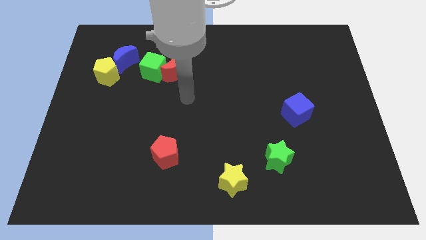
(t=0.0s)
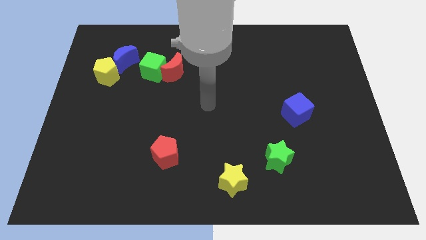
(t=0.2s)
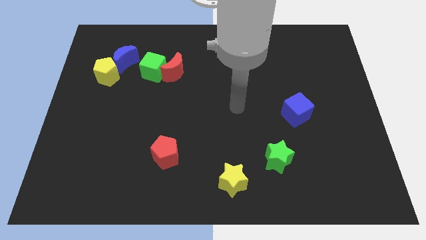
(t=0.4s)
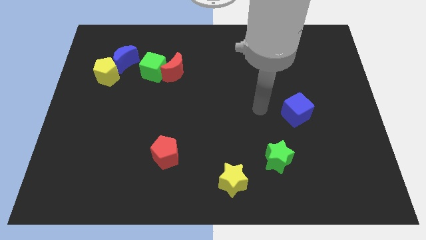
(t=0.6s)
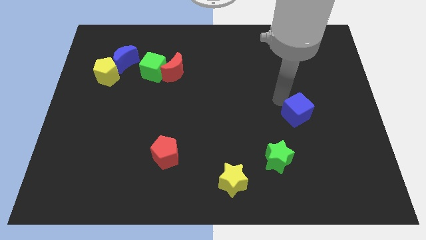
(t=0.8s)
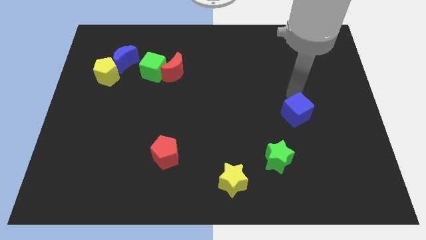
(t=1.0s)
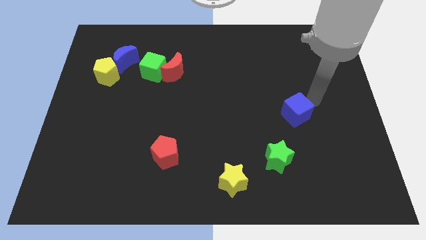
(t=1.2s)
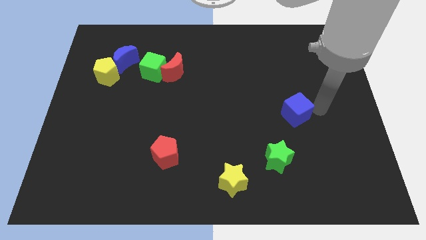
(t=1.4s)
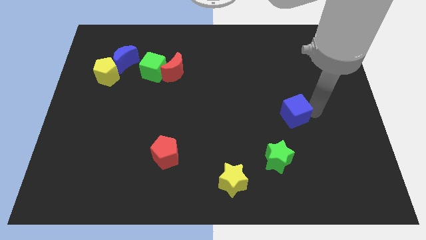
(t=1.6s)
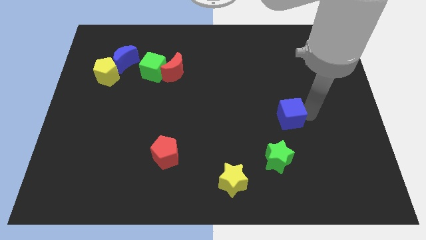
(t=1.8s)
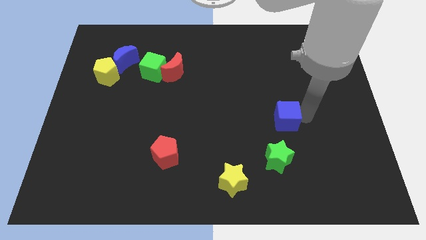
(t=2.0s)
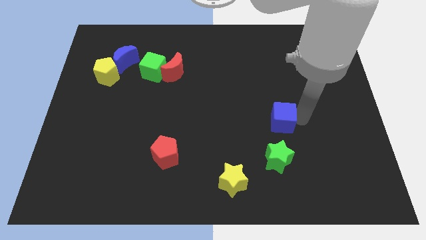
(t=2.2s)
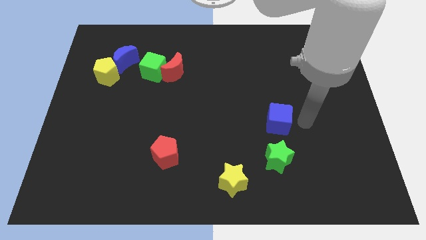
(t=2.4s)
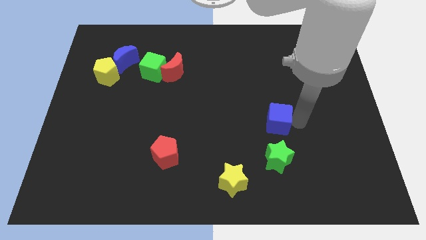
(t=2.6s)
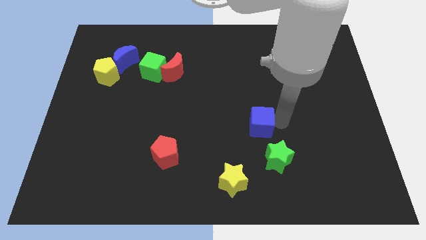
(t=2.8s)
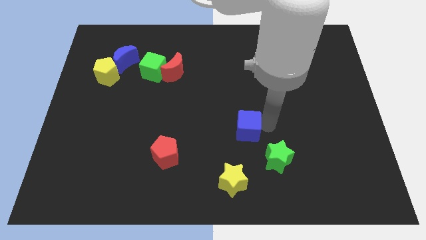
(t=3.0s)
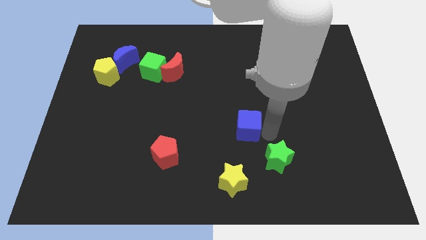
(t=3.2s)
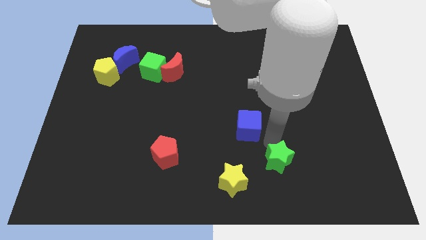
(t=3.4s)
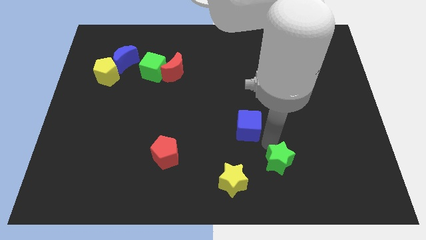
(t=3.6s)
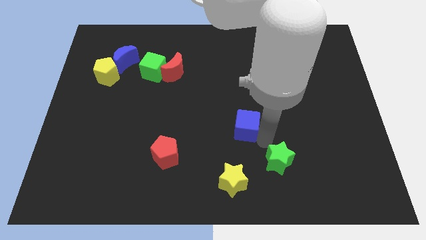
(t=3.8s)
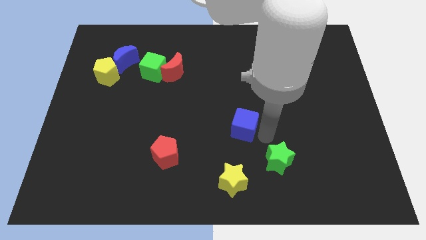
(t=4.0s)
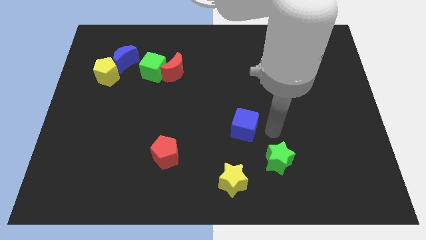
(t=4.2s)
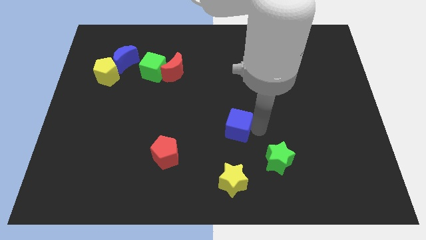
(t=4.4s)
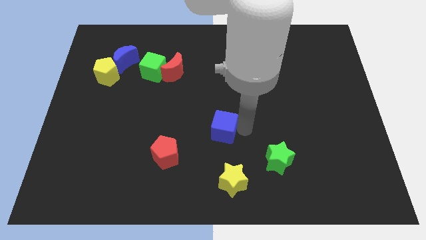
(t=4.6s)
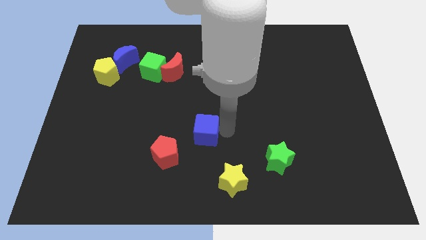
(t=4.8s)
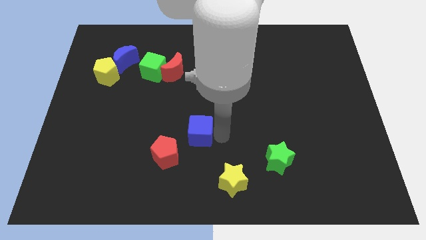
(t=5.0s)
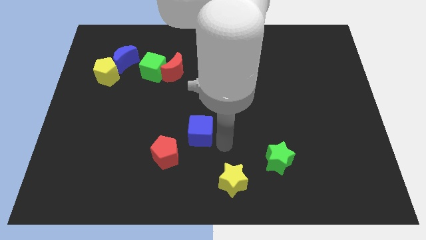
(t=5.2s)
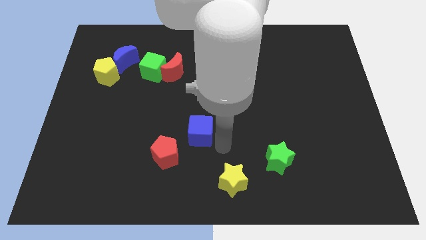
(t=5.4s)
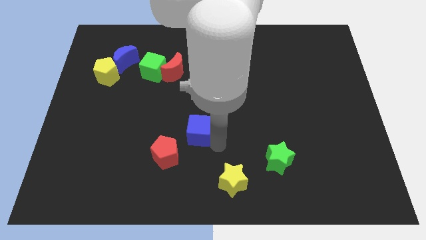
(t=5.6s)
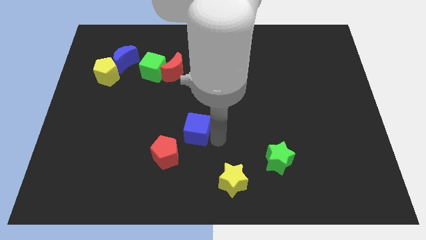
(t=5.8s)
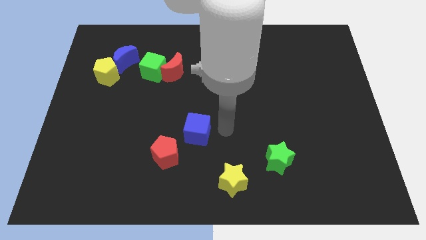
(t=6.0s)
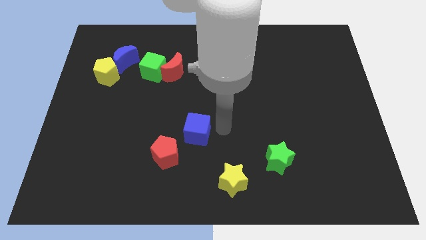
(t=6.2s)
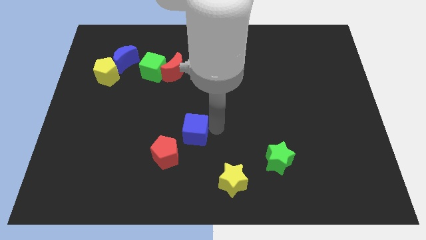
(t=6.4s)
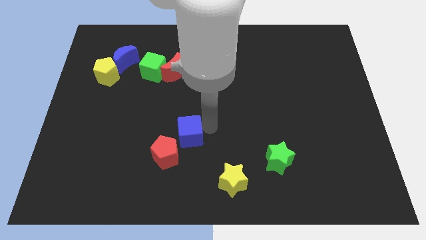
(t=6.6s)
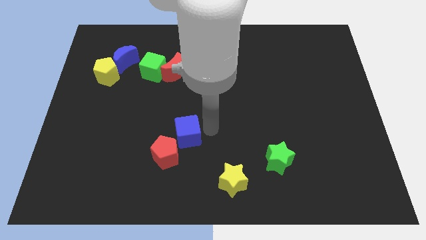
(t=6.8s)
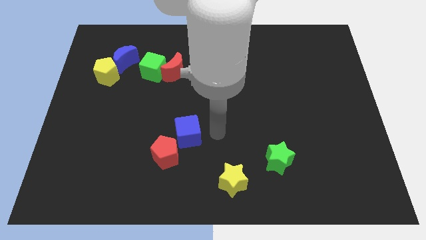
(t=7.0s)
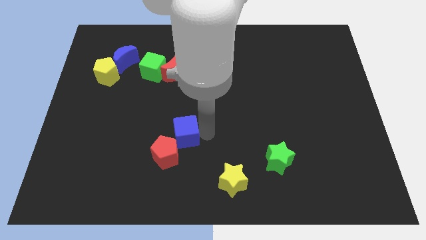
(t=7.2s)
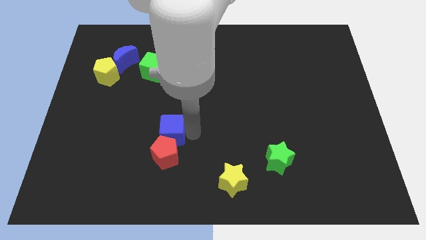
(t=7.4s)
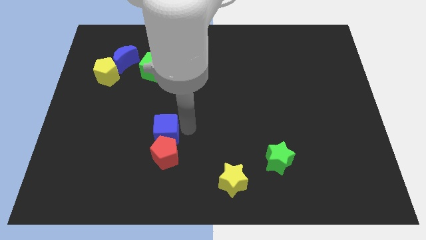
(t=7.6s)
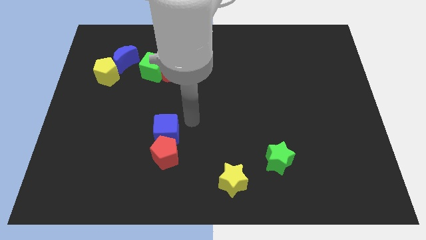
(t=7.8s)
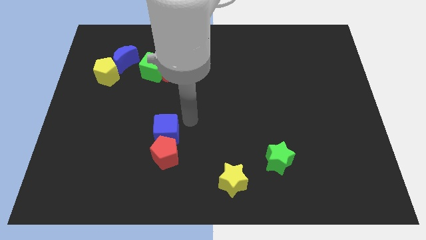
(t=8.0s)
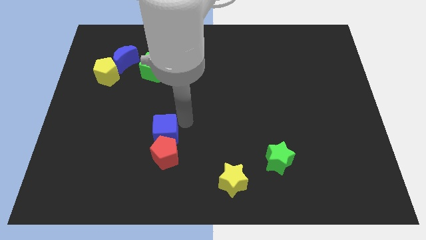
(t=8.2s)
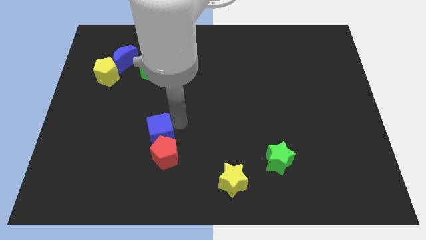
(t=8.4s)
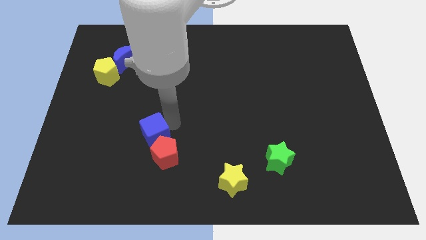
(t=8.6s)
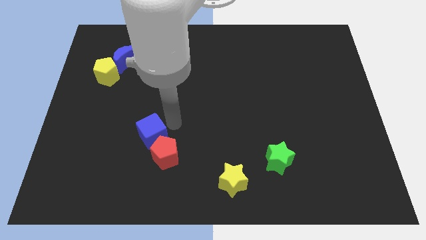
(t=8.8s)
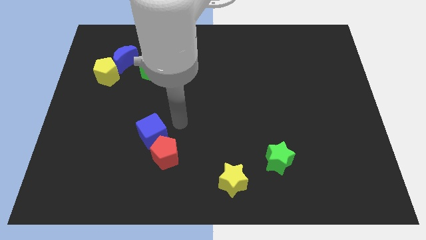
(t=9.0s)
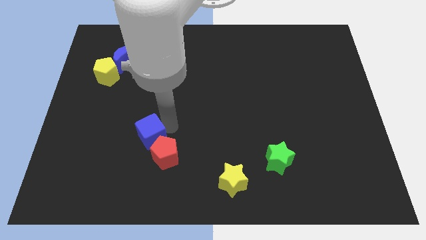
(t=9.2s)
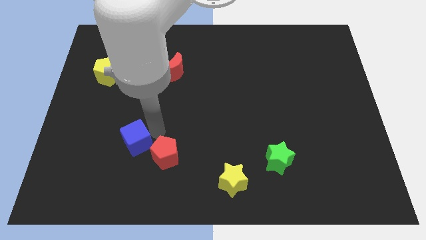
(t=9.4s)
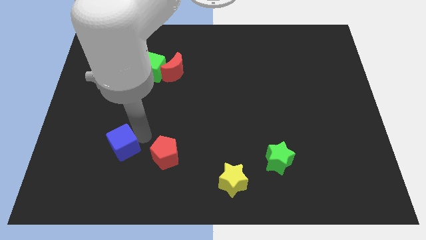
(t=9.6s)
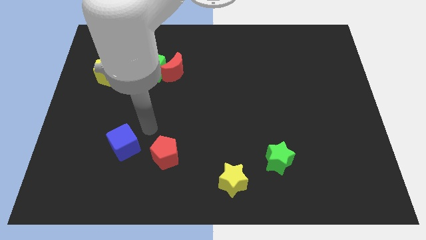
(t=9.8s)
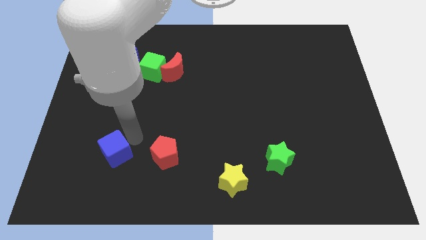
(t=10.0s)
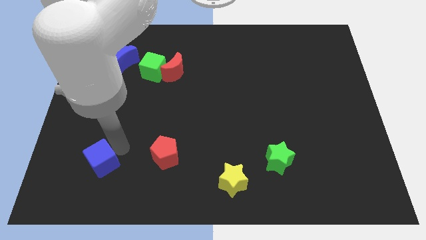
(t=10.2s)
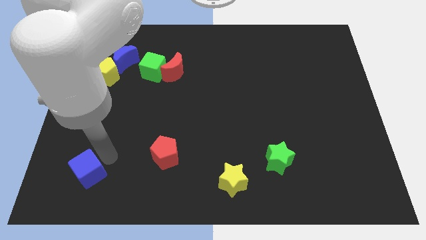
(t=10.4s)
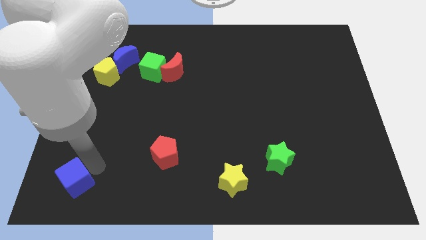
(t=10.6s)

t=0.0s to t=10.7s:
slide the blue cube to the bottom left

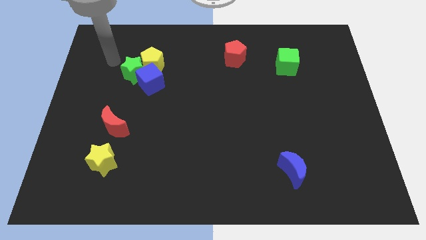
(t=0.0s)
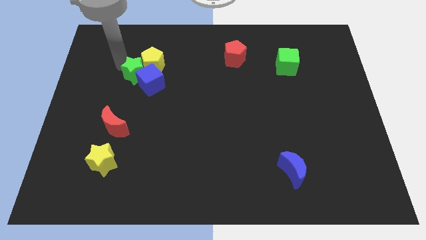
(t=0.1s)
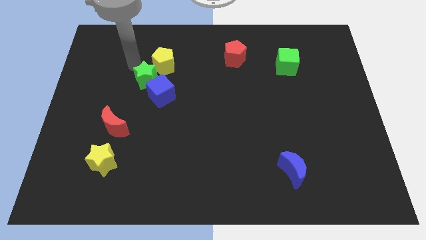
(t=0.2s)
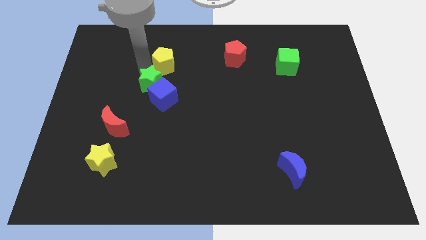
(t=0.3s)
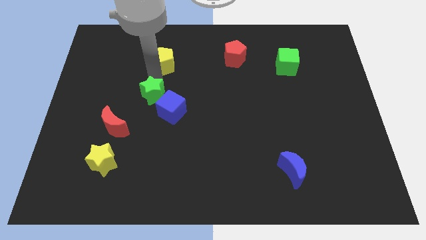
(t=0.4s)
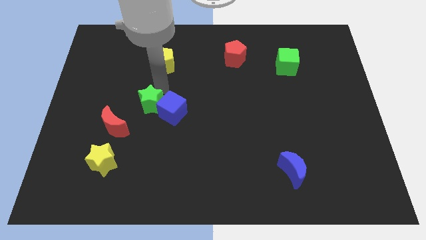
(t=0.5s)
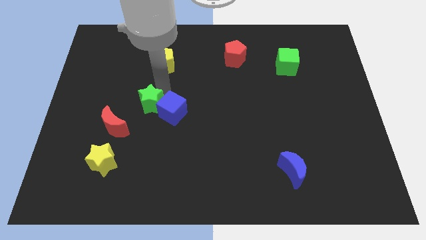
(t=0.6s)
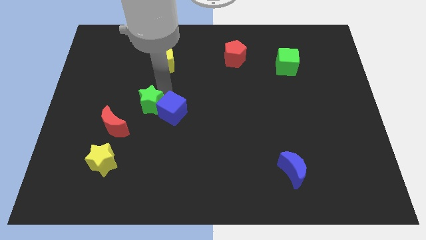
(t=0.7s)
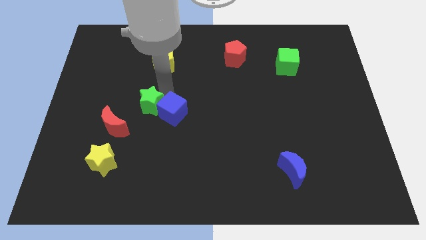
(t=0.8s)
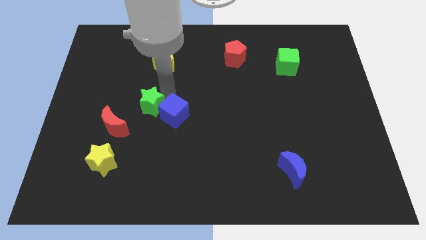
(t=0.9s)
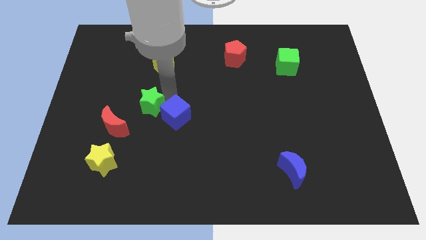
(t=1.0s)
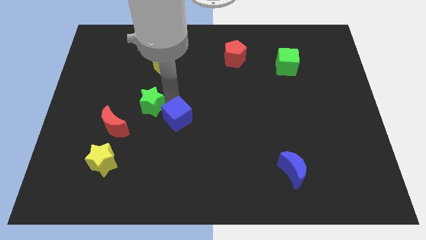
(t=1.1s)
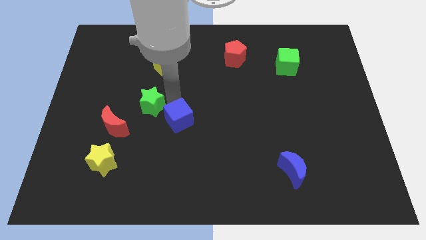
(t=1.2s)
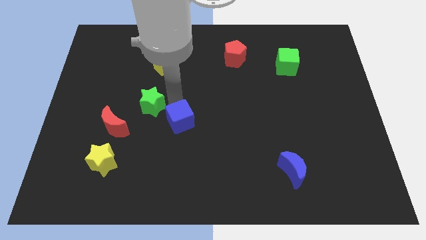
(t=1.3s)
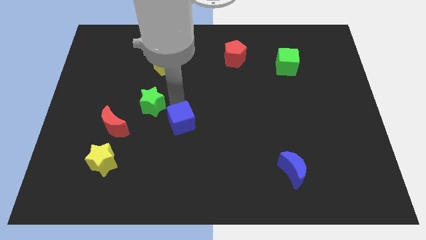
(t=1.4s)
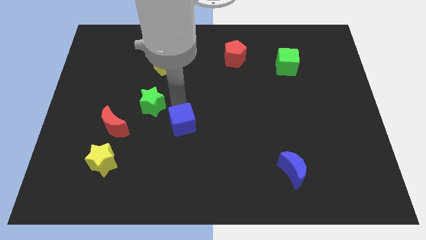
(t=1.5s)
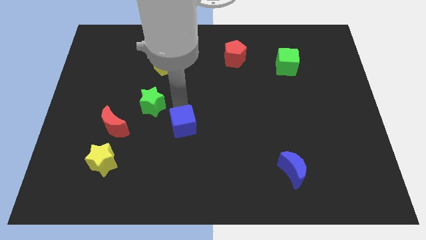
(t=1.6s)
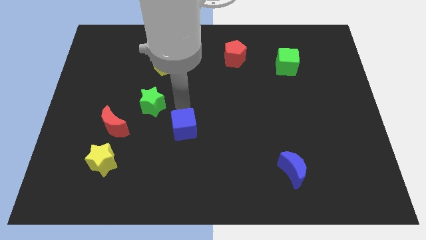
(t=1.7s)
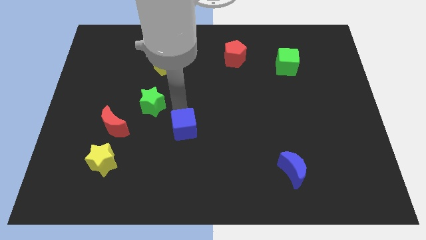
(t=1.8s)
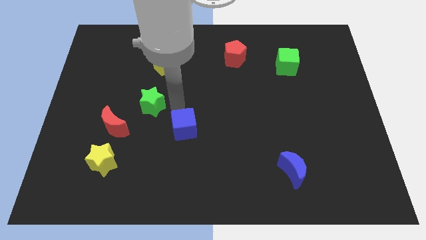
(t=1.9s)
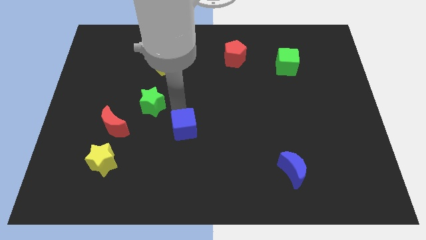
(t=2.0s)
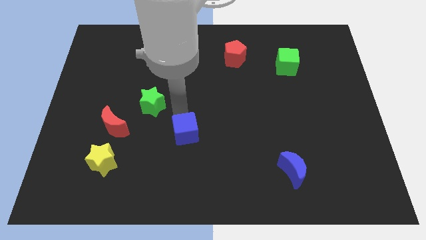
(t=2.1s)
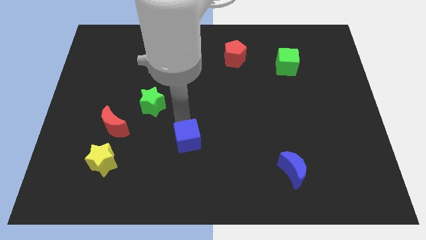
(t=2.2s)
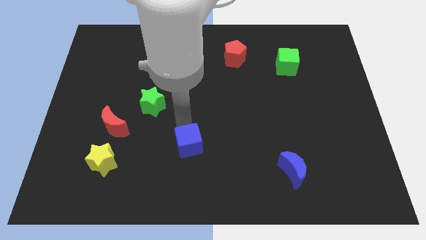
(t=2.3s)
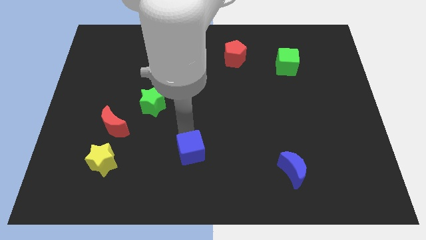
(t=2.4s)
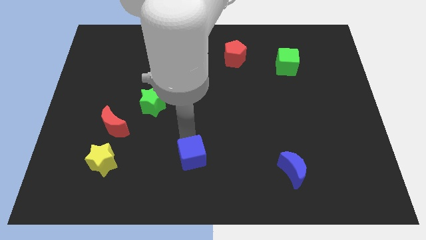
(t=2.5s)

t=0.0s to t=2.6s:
put the blue cube to the bottom side
